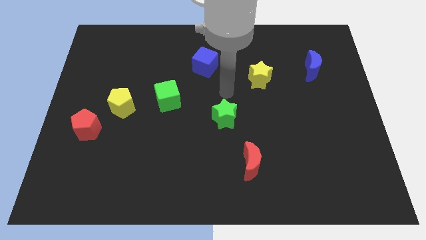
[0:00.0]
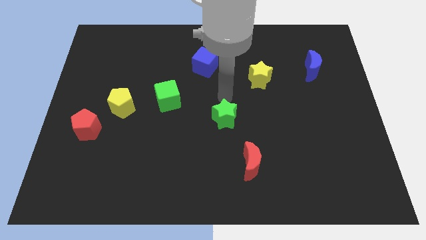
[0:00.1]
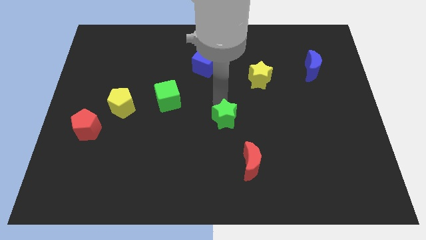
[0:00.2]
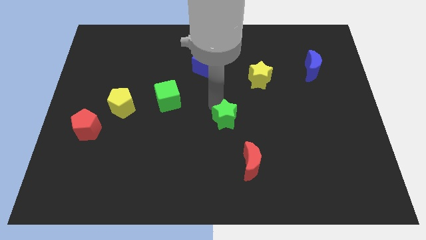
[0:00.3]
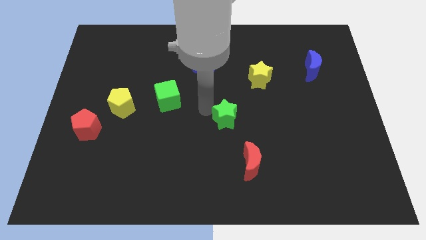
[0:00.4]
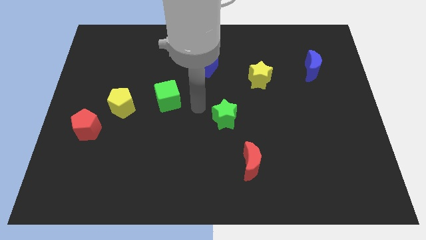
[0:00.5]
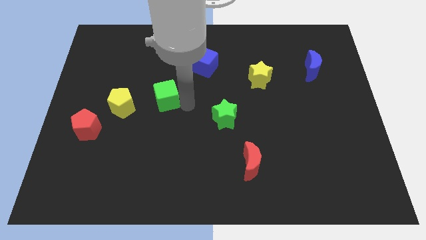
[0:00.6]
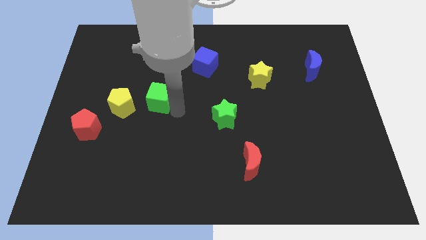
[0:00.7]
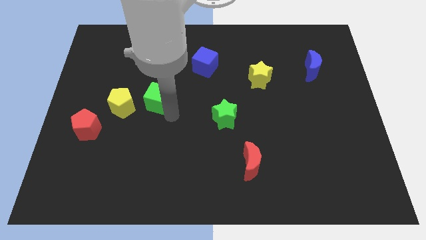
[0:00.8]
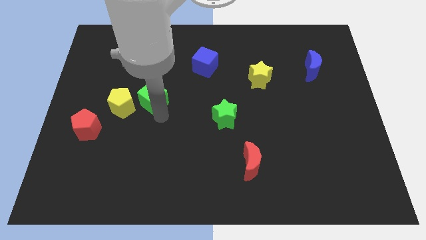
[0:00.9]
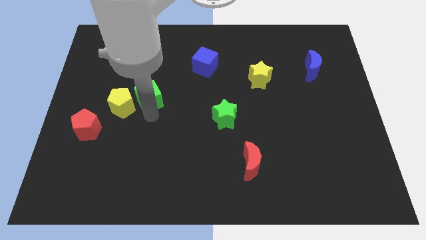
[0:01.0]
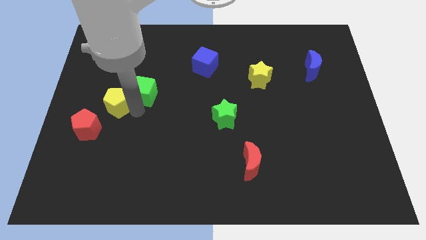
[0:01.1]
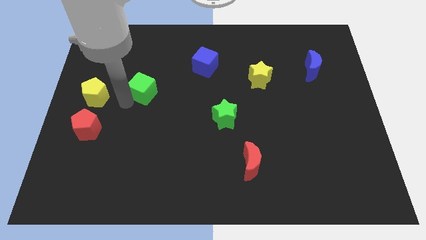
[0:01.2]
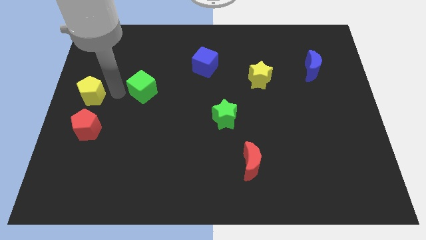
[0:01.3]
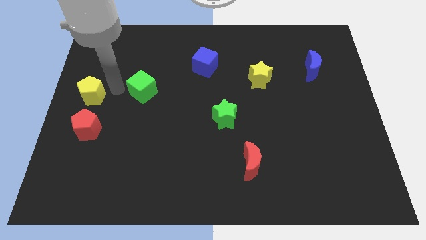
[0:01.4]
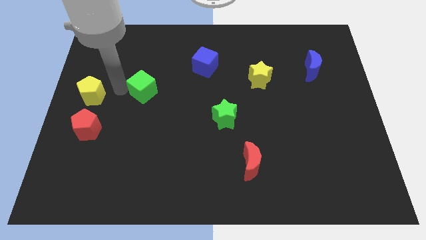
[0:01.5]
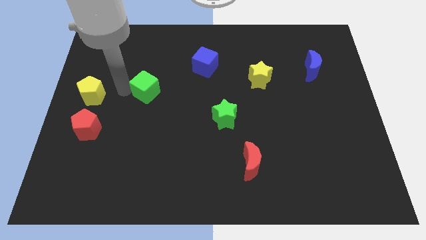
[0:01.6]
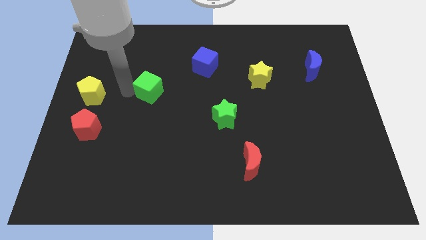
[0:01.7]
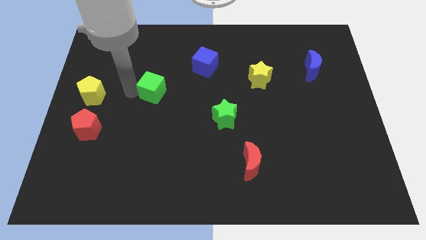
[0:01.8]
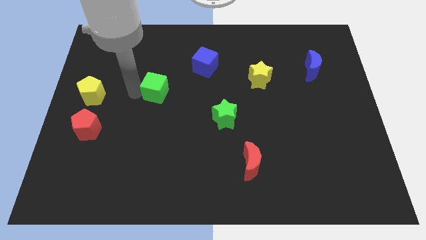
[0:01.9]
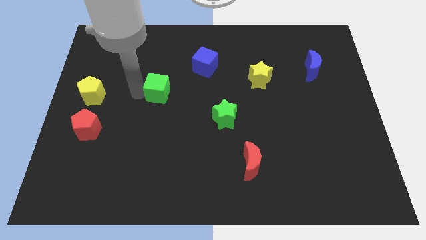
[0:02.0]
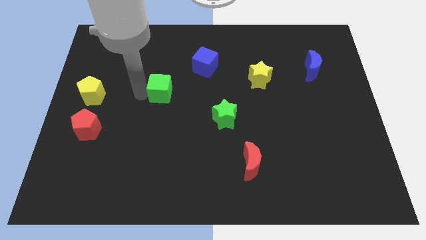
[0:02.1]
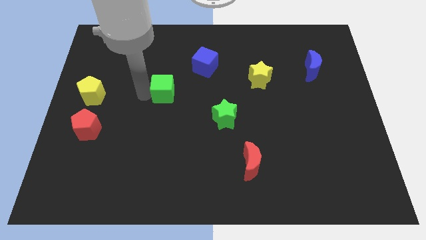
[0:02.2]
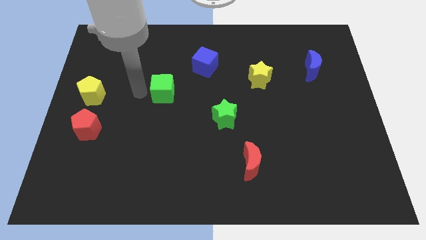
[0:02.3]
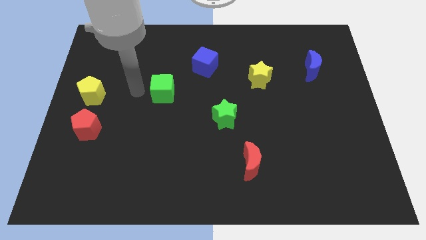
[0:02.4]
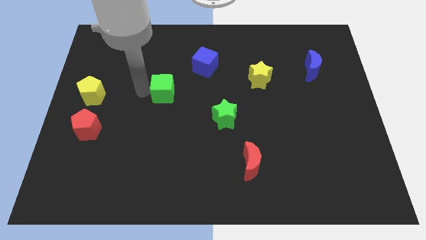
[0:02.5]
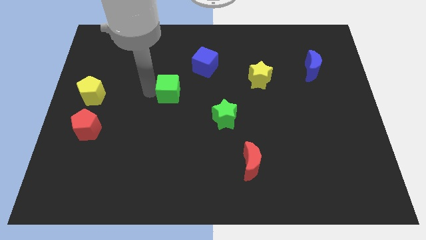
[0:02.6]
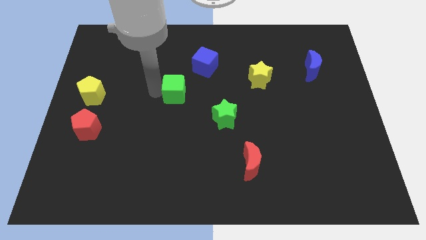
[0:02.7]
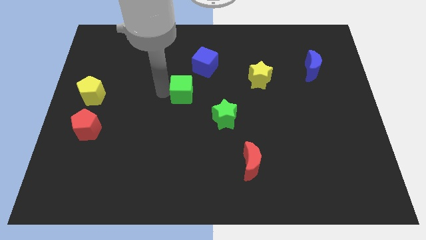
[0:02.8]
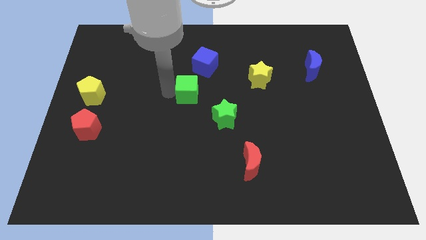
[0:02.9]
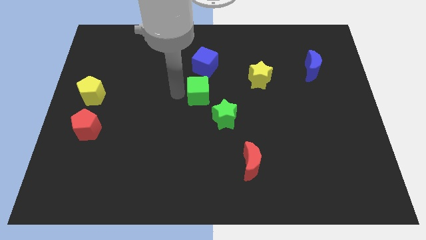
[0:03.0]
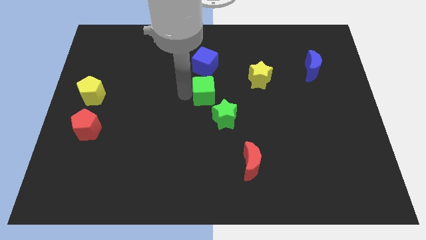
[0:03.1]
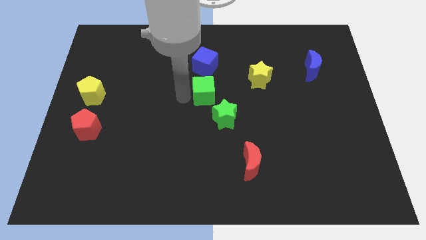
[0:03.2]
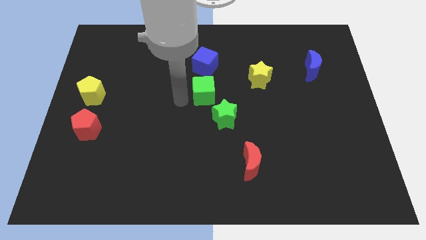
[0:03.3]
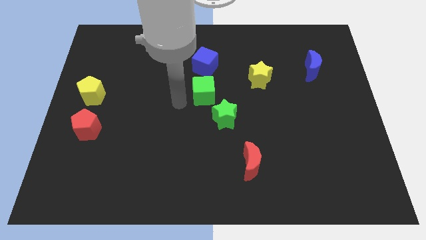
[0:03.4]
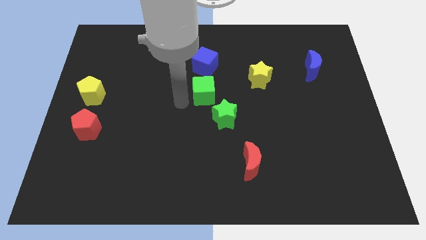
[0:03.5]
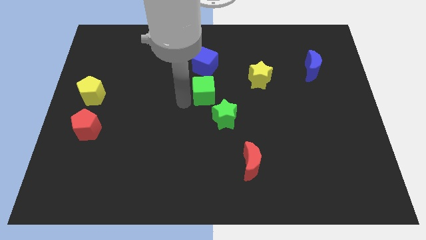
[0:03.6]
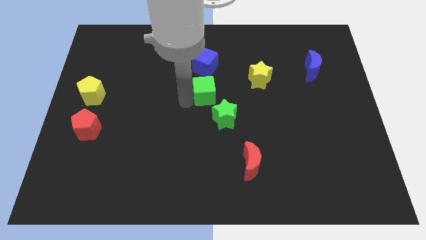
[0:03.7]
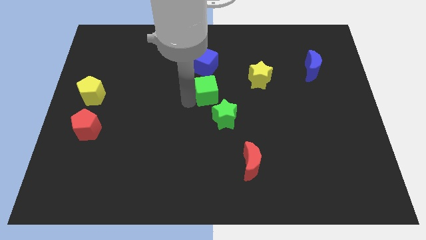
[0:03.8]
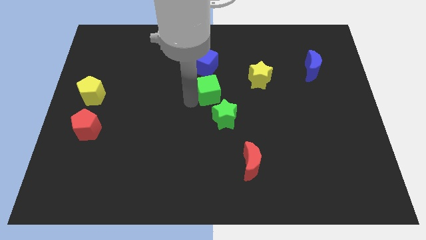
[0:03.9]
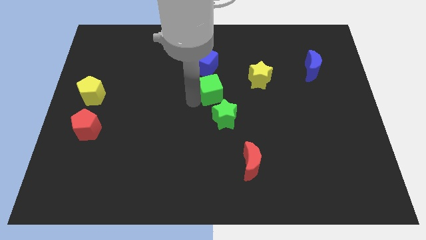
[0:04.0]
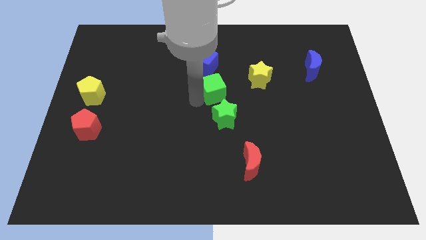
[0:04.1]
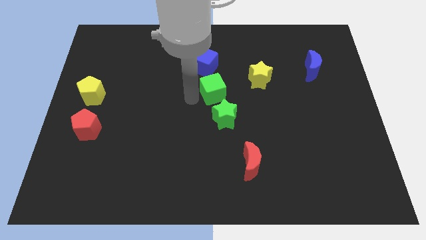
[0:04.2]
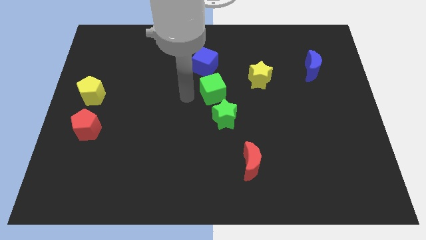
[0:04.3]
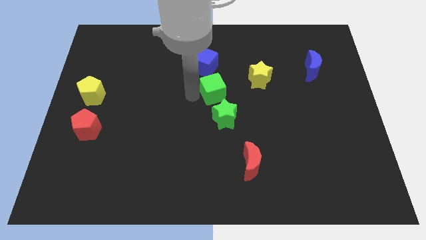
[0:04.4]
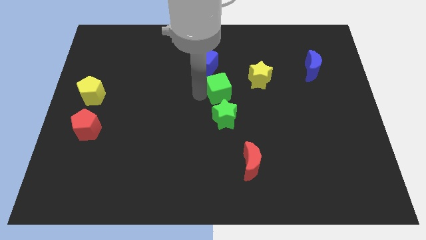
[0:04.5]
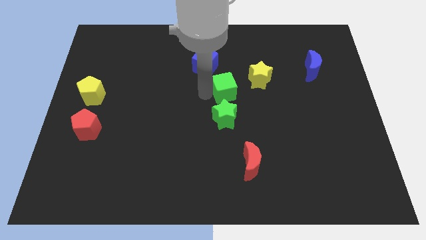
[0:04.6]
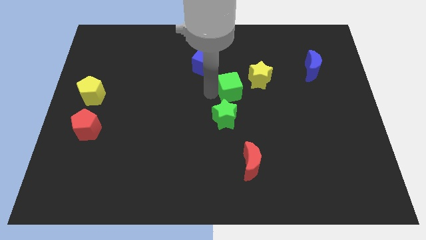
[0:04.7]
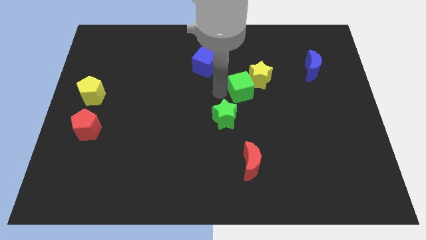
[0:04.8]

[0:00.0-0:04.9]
push the green cube close to the yellow star

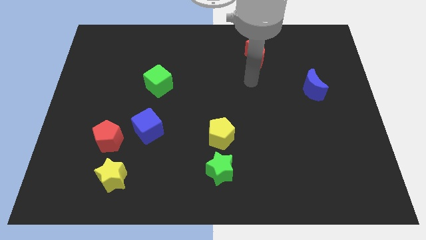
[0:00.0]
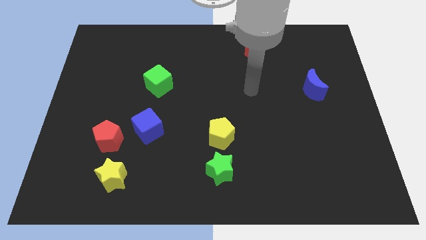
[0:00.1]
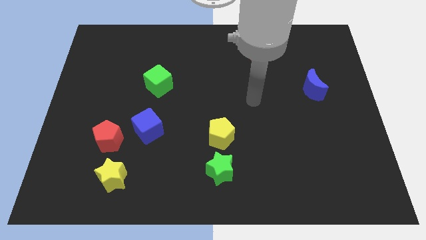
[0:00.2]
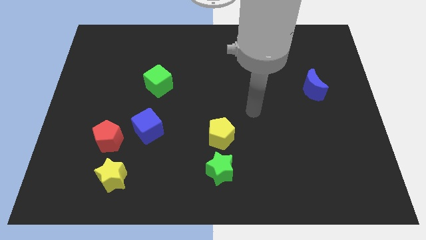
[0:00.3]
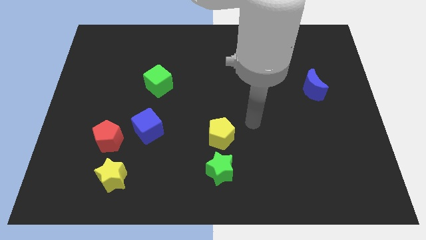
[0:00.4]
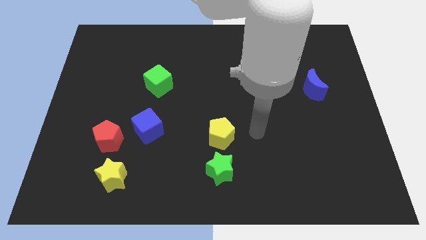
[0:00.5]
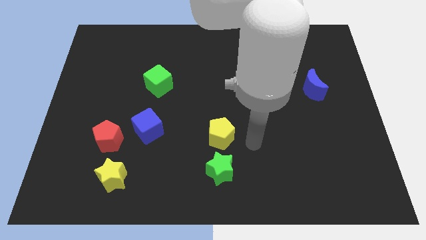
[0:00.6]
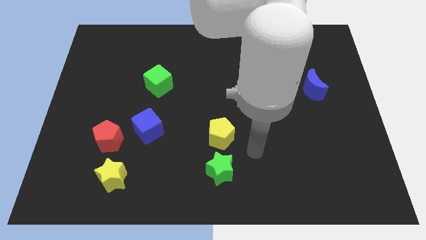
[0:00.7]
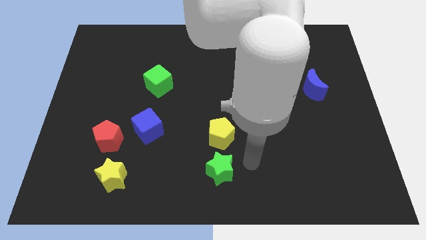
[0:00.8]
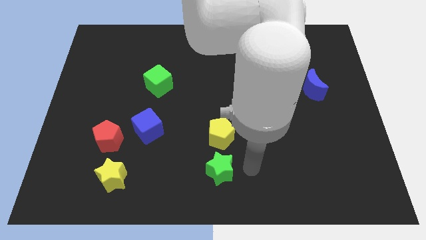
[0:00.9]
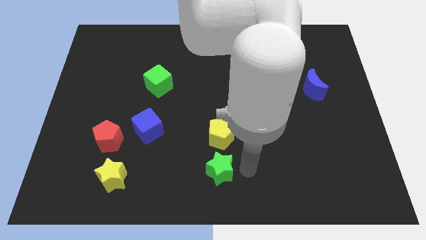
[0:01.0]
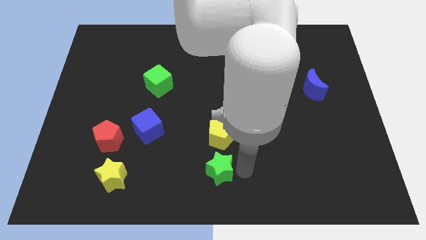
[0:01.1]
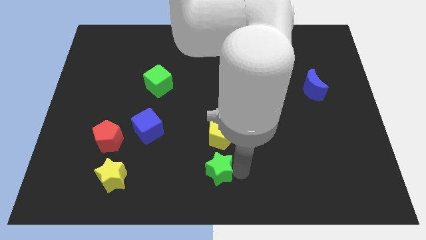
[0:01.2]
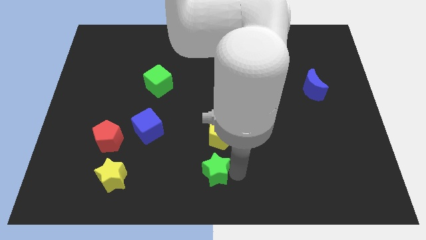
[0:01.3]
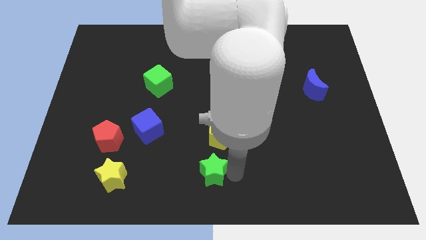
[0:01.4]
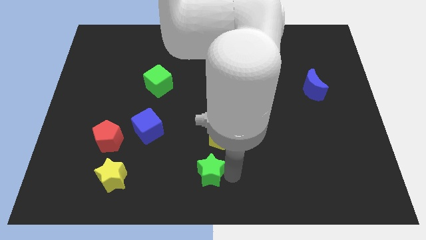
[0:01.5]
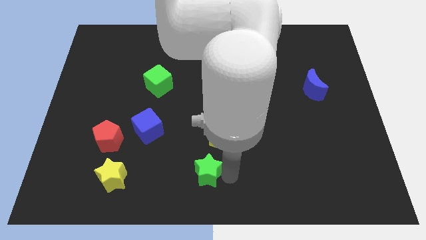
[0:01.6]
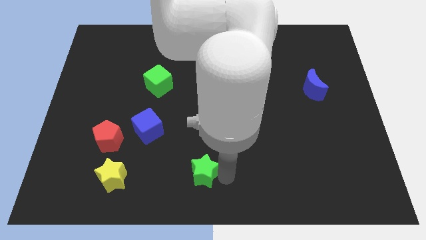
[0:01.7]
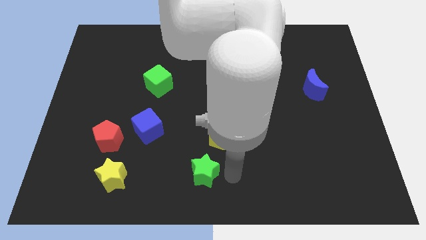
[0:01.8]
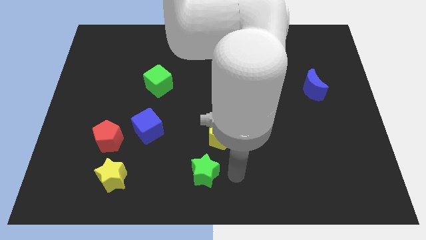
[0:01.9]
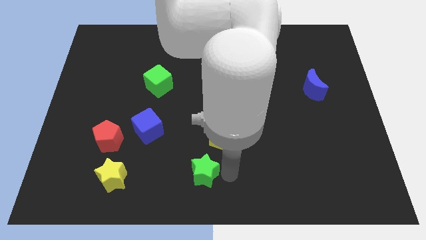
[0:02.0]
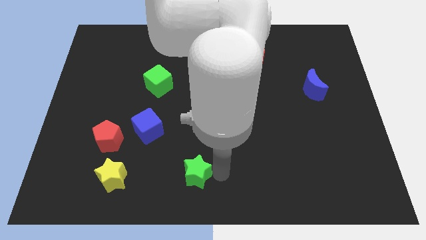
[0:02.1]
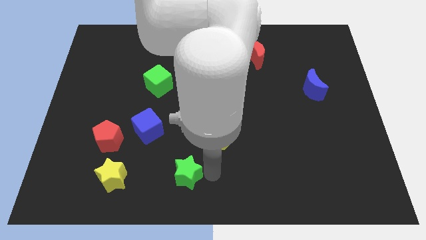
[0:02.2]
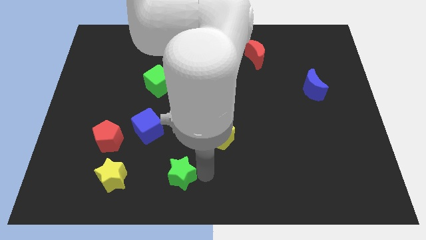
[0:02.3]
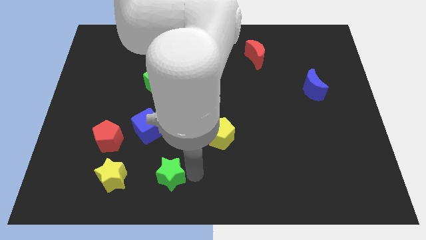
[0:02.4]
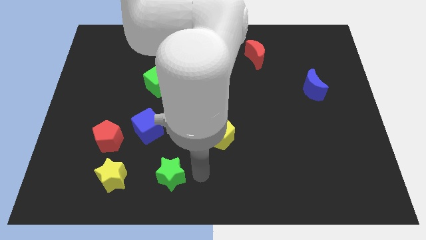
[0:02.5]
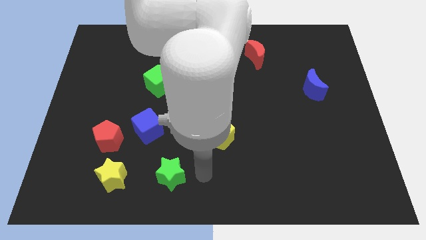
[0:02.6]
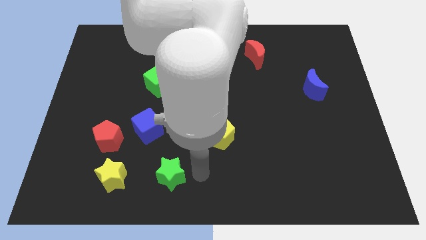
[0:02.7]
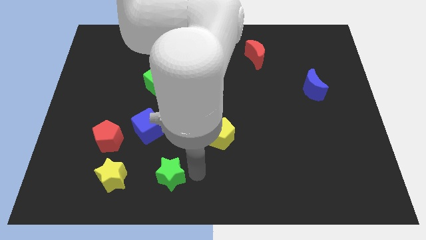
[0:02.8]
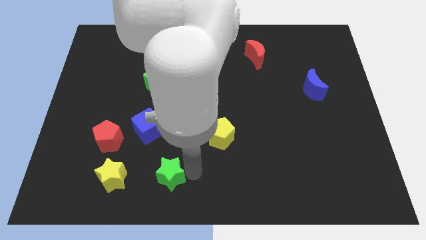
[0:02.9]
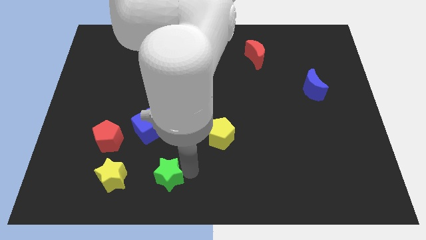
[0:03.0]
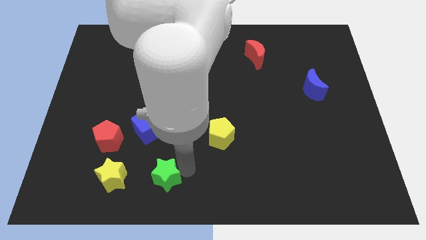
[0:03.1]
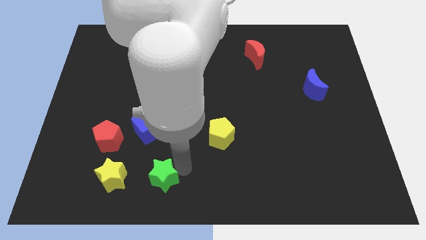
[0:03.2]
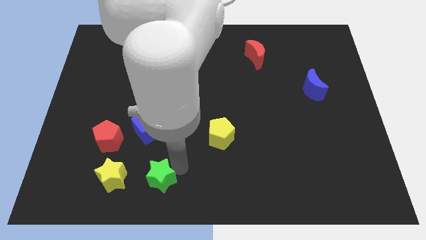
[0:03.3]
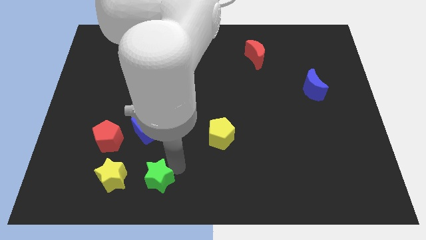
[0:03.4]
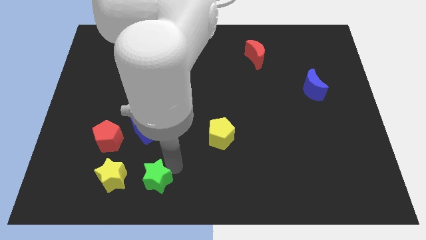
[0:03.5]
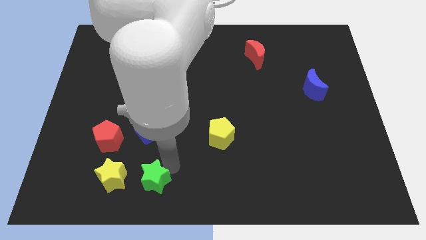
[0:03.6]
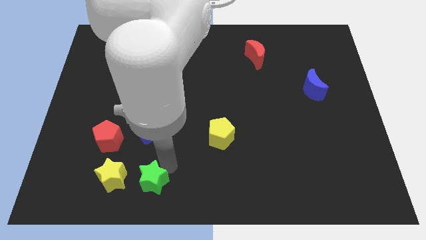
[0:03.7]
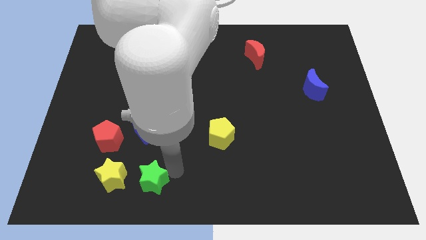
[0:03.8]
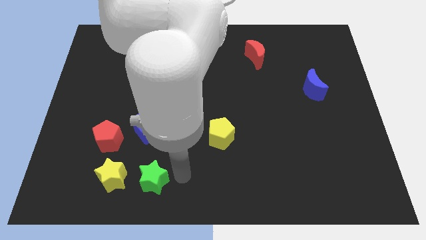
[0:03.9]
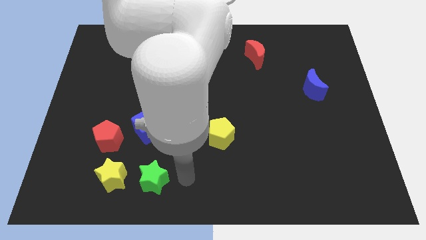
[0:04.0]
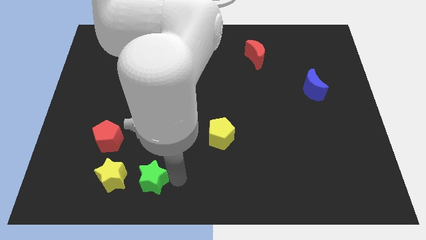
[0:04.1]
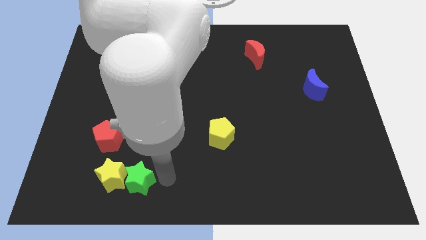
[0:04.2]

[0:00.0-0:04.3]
slide the green star to the yellow star
